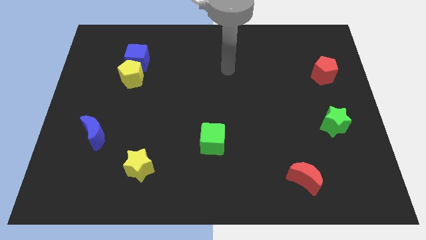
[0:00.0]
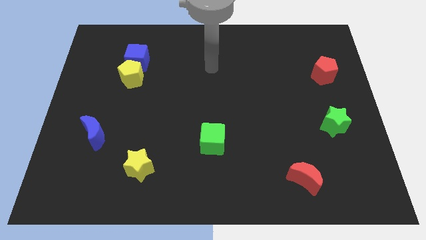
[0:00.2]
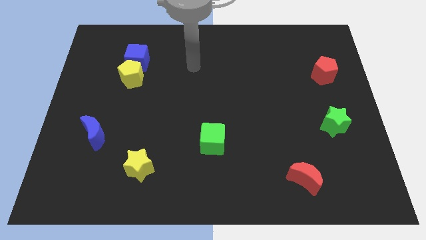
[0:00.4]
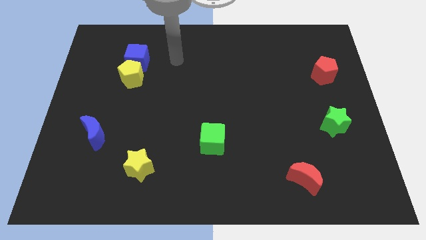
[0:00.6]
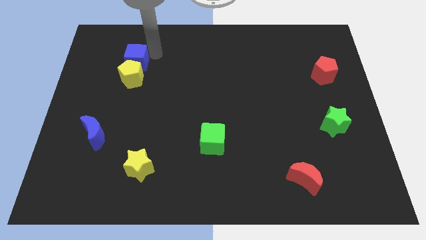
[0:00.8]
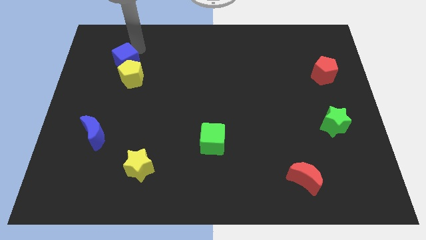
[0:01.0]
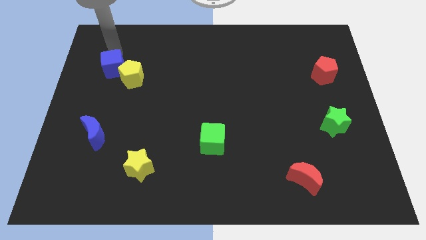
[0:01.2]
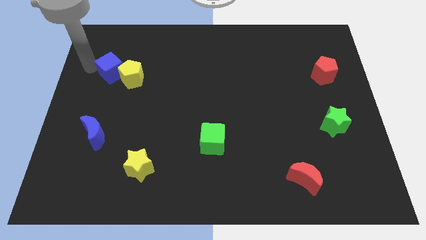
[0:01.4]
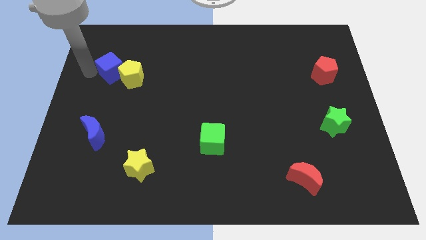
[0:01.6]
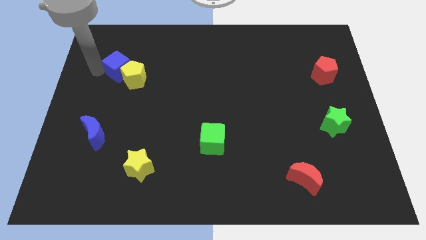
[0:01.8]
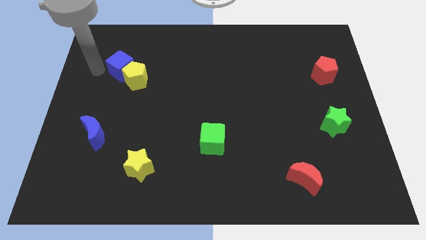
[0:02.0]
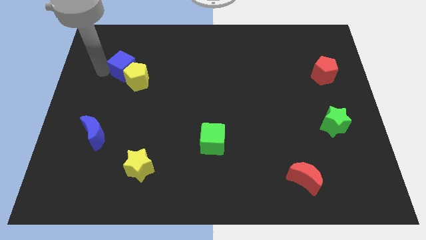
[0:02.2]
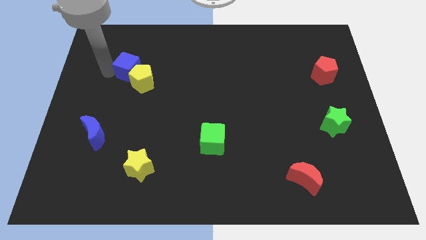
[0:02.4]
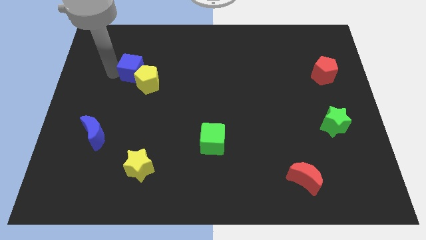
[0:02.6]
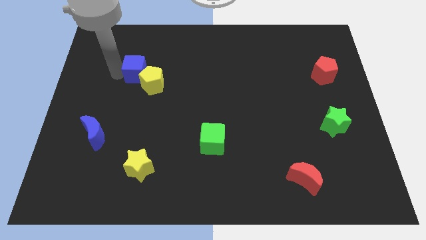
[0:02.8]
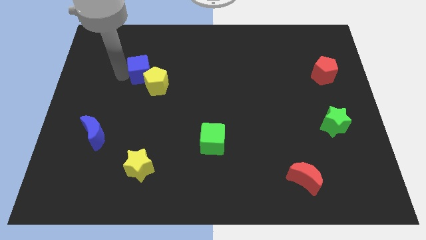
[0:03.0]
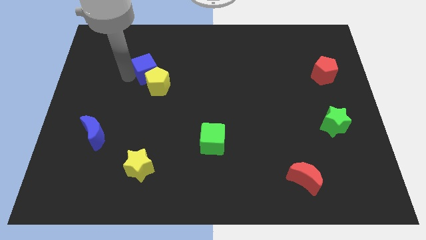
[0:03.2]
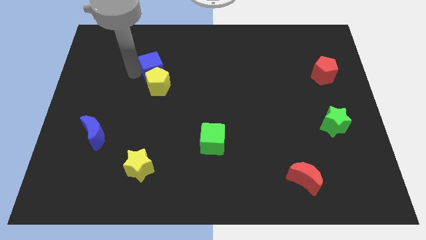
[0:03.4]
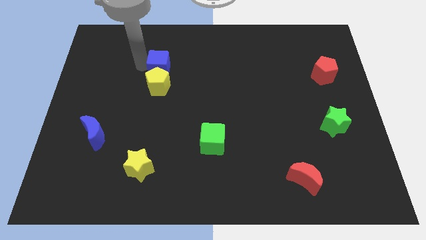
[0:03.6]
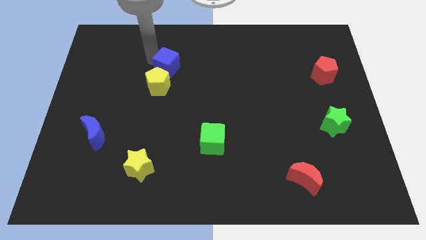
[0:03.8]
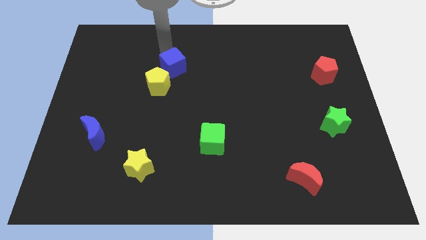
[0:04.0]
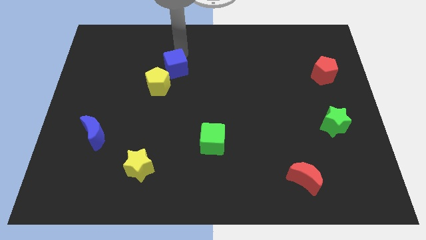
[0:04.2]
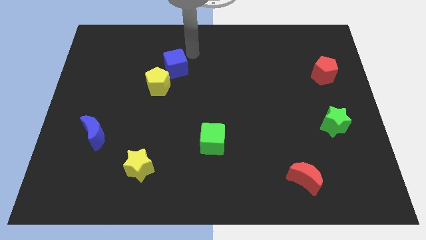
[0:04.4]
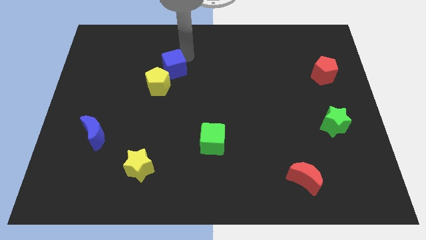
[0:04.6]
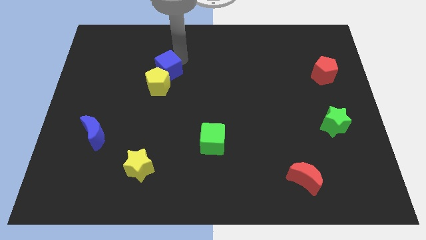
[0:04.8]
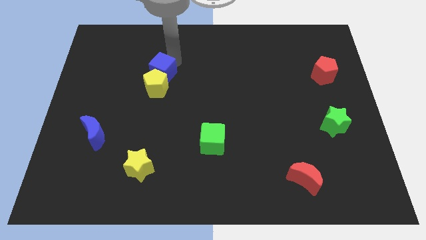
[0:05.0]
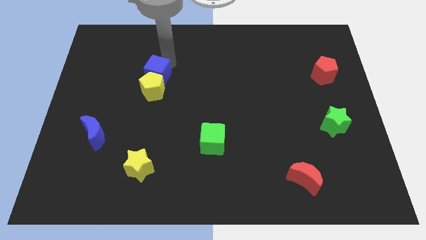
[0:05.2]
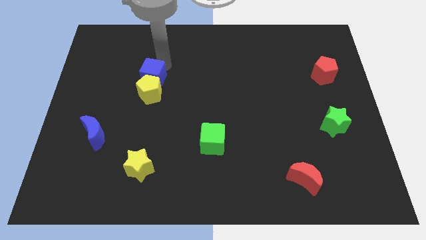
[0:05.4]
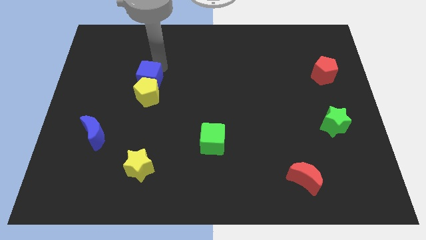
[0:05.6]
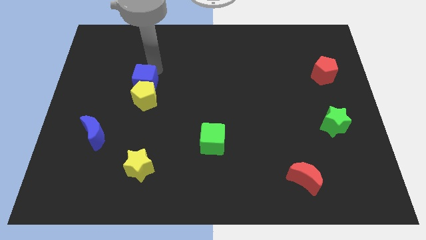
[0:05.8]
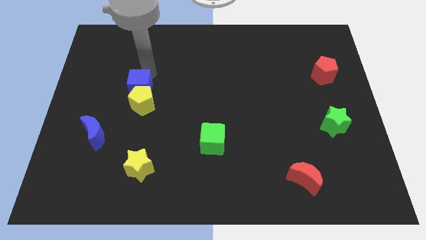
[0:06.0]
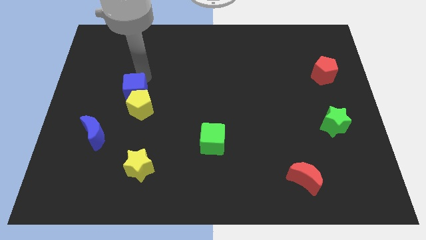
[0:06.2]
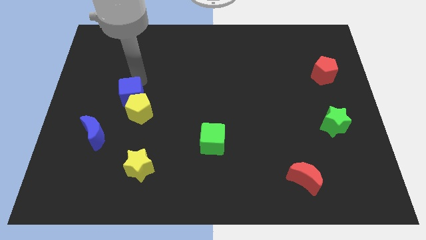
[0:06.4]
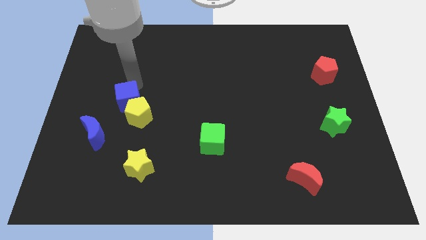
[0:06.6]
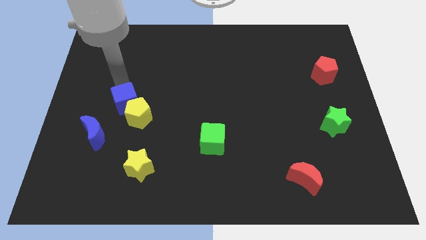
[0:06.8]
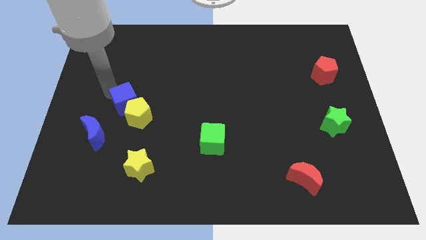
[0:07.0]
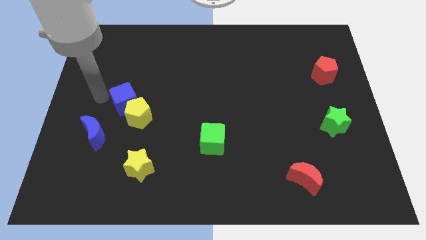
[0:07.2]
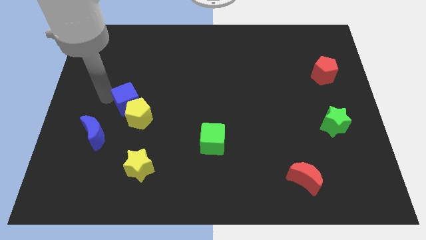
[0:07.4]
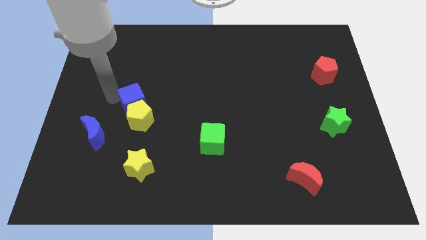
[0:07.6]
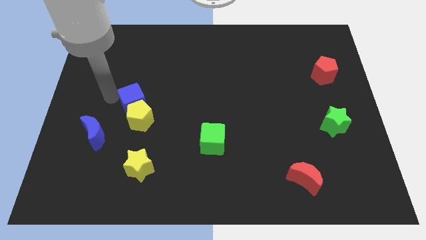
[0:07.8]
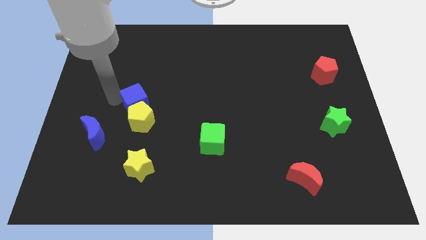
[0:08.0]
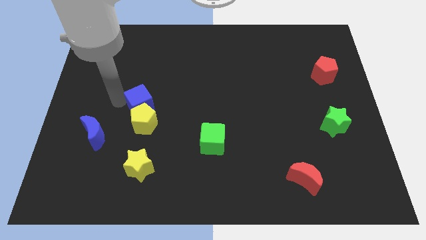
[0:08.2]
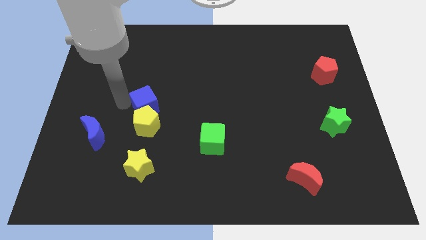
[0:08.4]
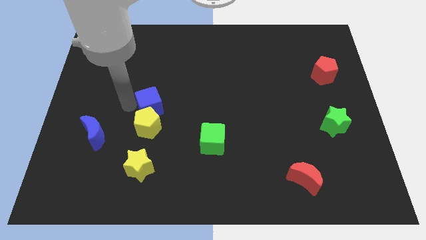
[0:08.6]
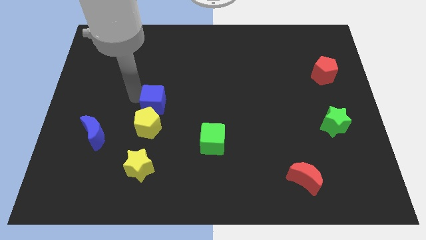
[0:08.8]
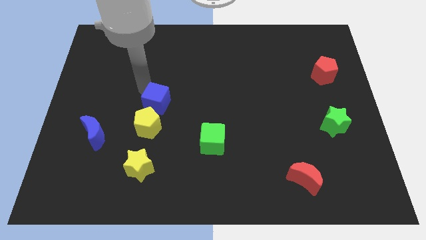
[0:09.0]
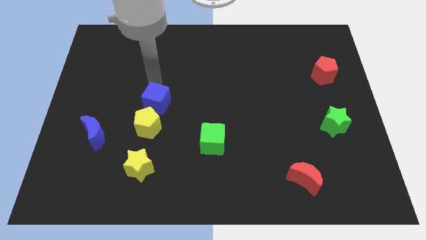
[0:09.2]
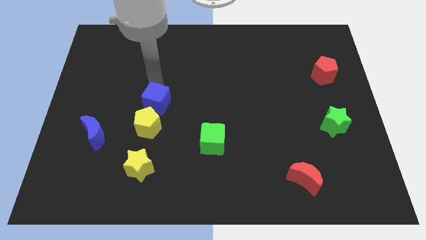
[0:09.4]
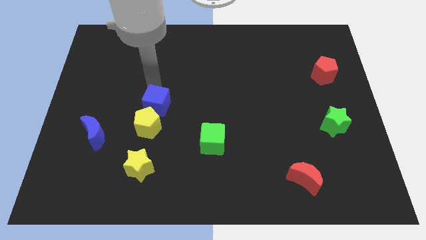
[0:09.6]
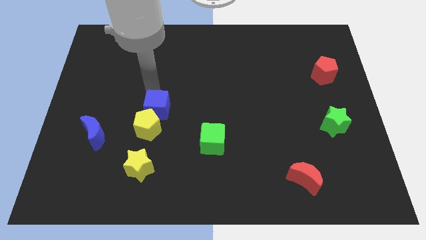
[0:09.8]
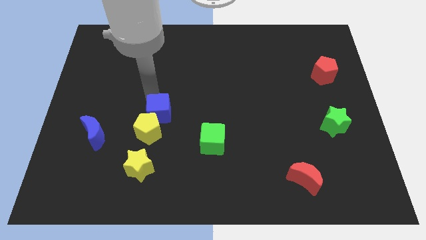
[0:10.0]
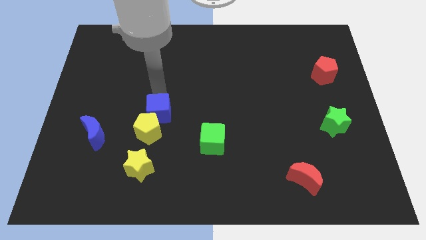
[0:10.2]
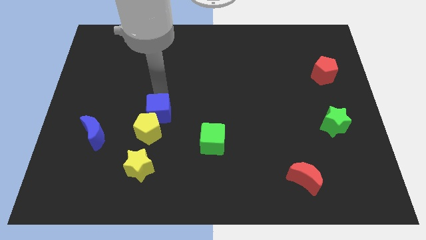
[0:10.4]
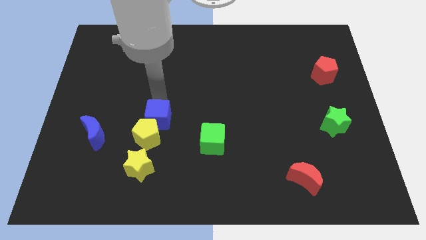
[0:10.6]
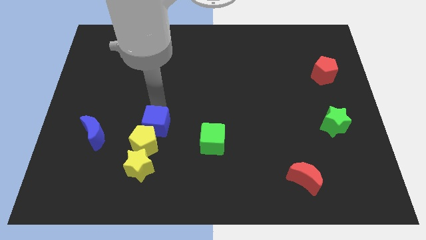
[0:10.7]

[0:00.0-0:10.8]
move the blue cube just left of the green cube

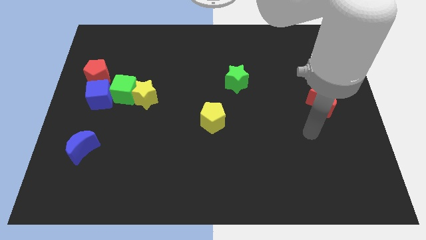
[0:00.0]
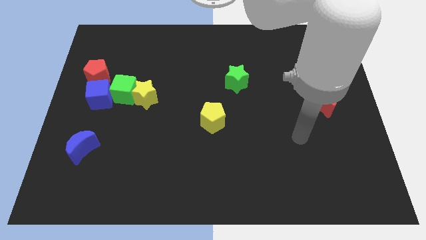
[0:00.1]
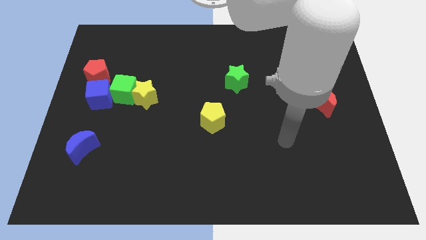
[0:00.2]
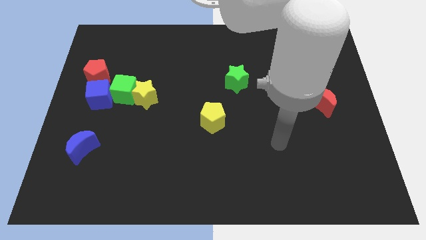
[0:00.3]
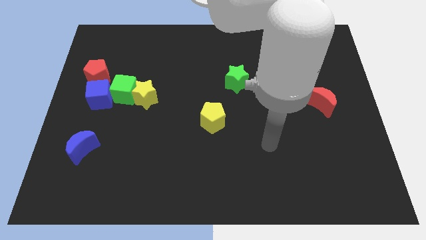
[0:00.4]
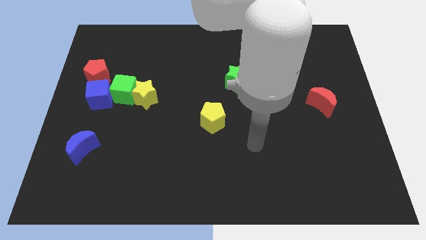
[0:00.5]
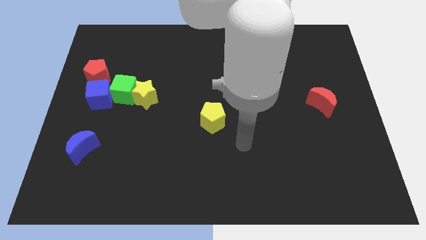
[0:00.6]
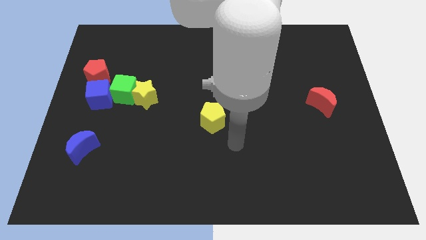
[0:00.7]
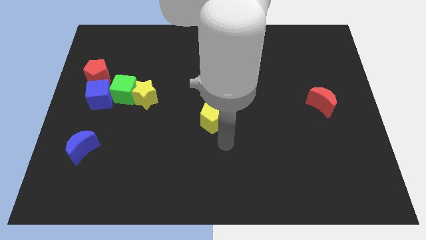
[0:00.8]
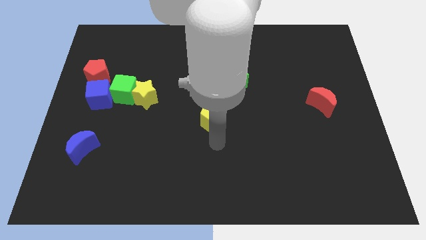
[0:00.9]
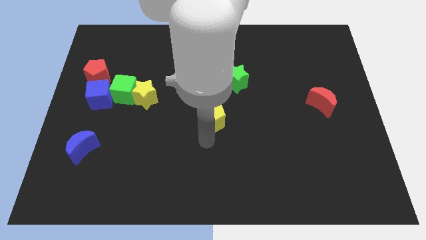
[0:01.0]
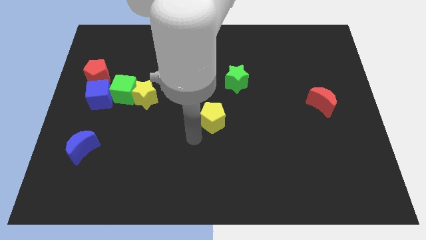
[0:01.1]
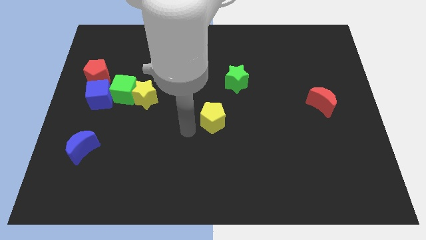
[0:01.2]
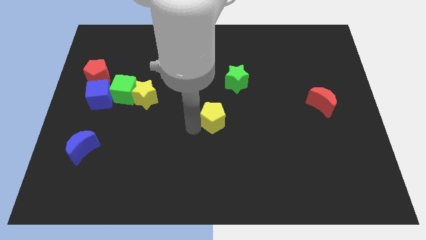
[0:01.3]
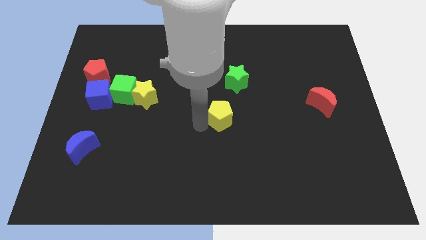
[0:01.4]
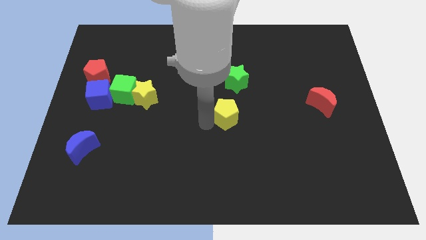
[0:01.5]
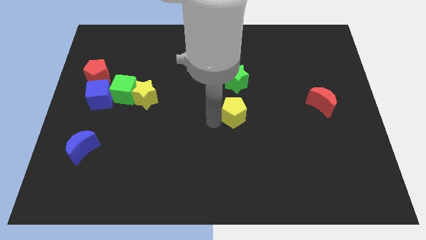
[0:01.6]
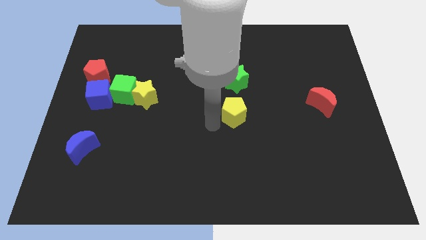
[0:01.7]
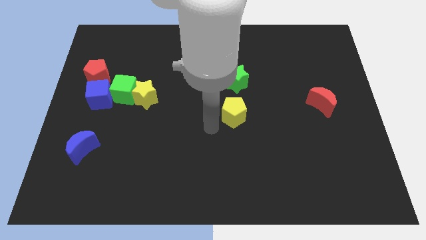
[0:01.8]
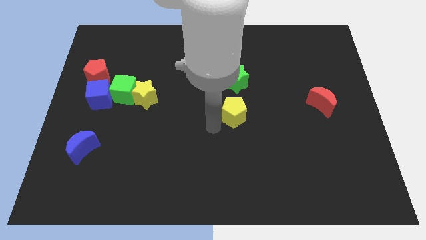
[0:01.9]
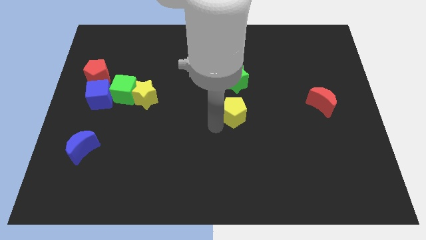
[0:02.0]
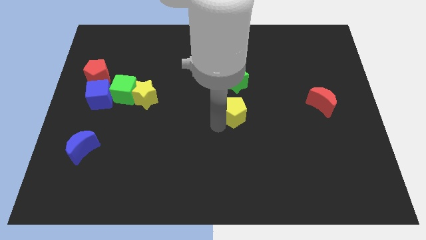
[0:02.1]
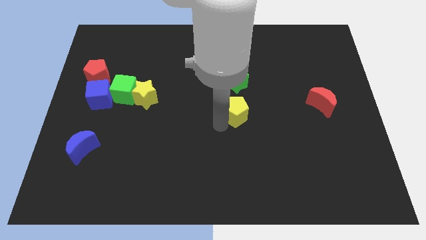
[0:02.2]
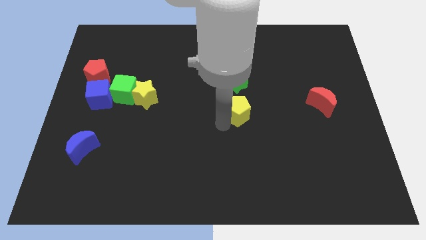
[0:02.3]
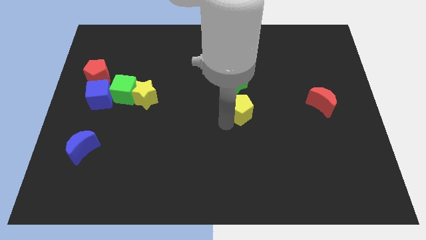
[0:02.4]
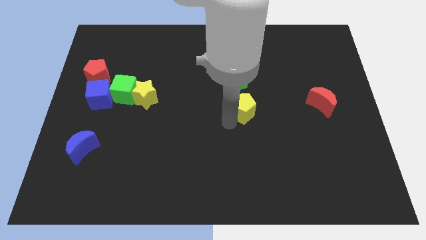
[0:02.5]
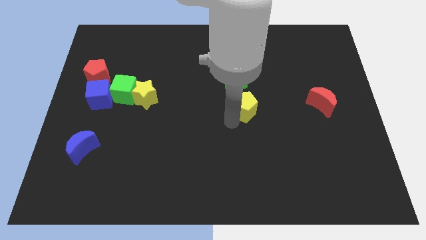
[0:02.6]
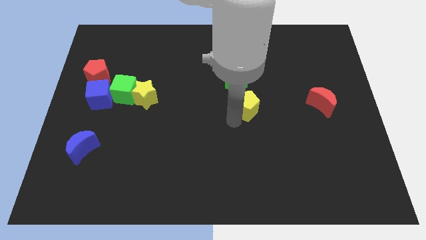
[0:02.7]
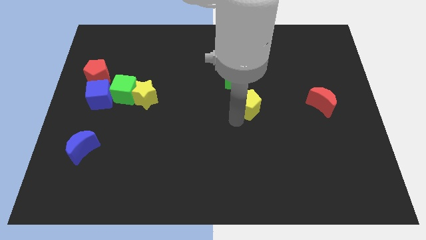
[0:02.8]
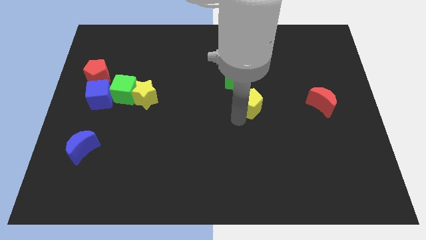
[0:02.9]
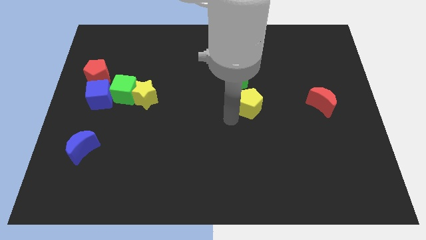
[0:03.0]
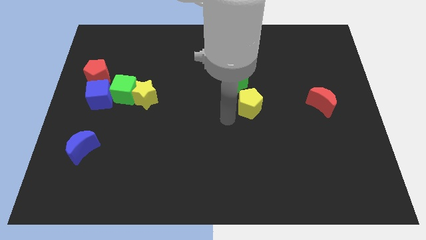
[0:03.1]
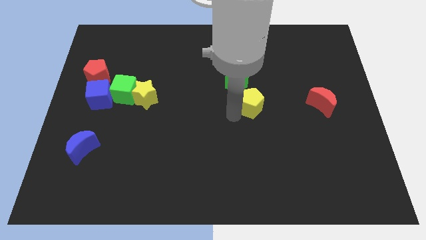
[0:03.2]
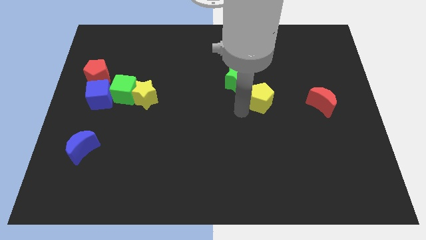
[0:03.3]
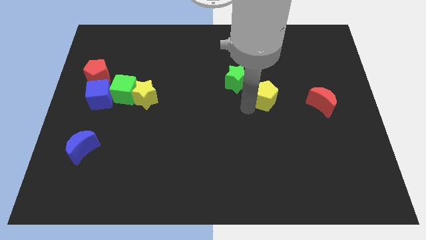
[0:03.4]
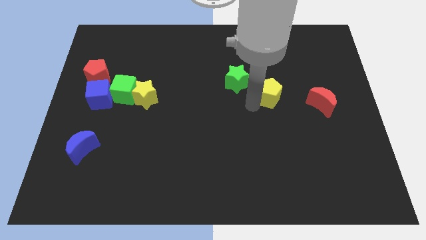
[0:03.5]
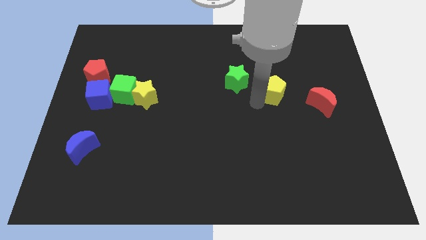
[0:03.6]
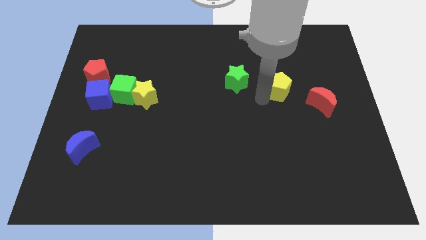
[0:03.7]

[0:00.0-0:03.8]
put the yellow pentagon to the top left side of the red moon
